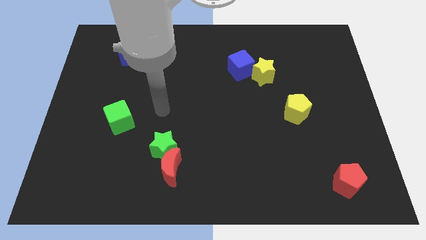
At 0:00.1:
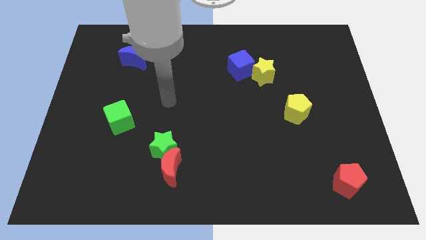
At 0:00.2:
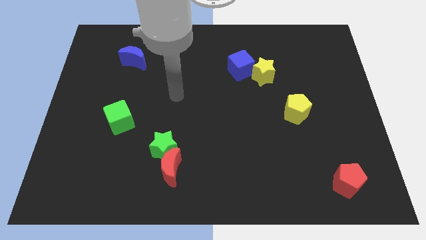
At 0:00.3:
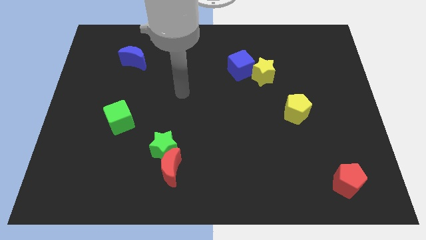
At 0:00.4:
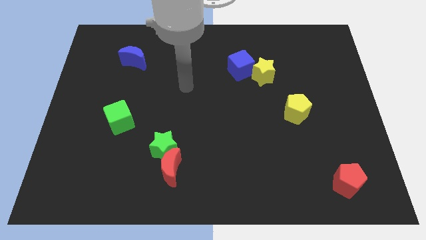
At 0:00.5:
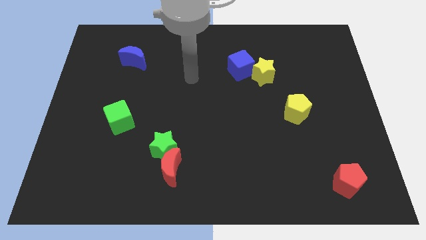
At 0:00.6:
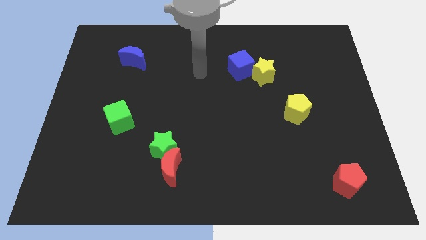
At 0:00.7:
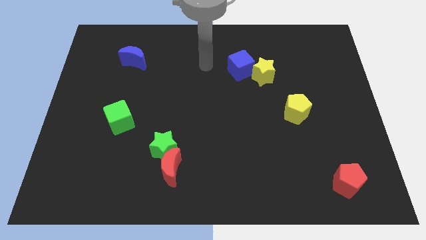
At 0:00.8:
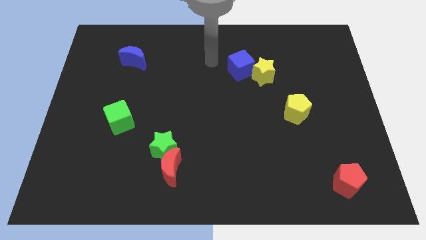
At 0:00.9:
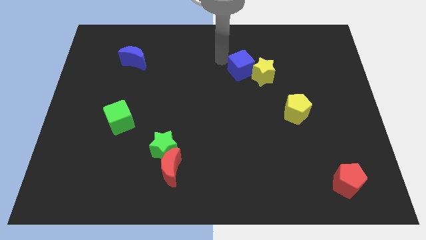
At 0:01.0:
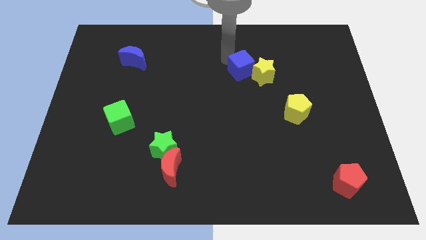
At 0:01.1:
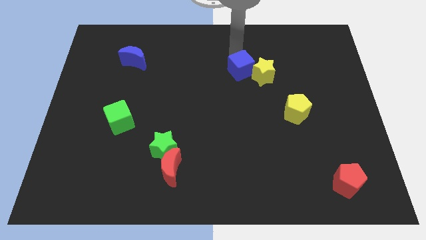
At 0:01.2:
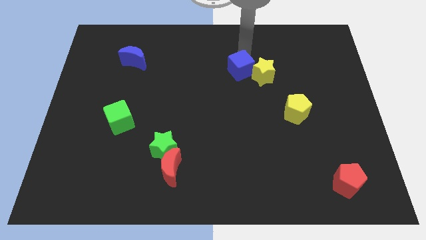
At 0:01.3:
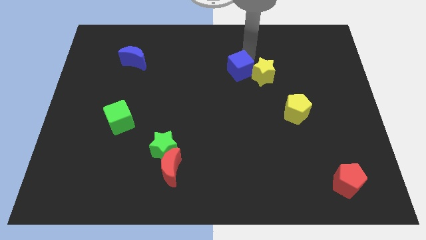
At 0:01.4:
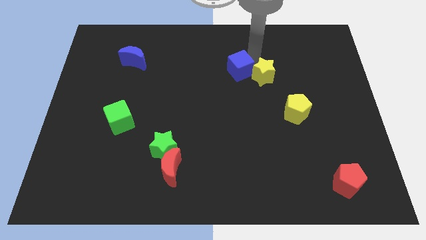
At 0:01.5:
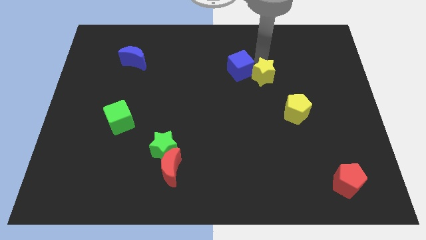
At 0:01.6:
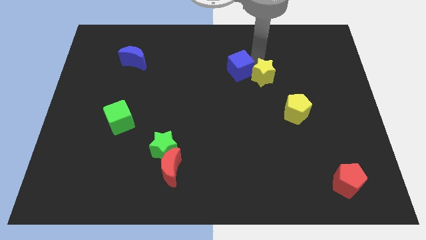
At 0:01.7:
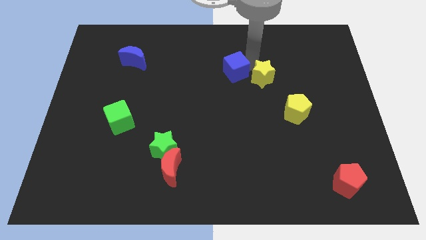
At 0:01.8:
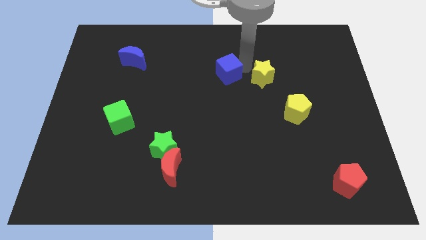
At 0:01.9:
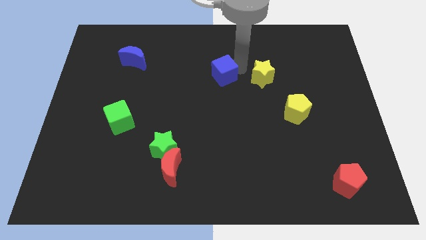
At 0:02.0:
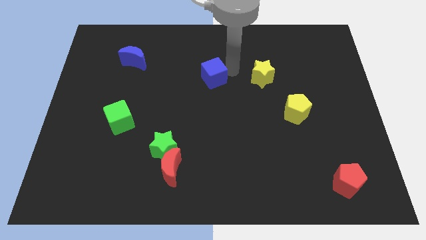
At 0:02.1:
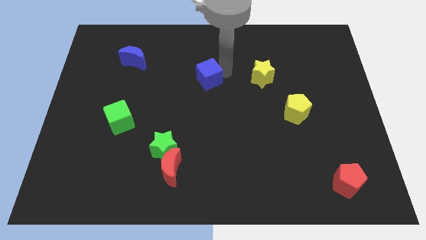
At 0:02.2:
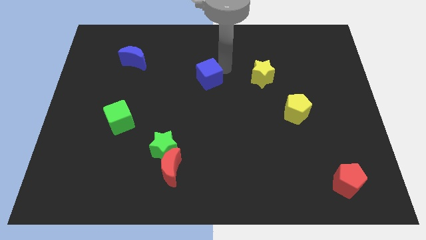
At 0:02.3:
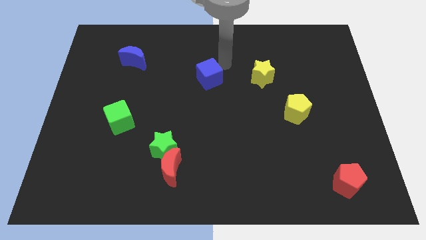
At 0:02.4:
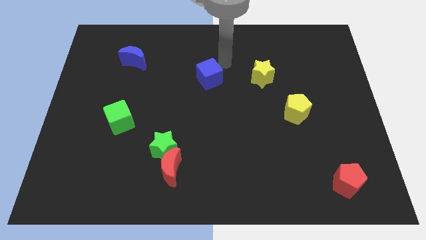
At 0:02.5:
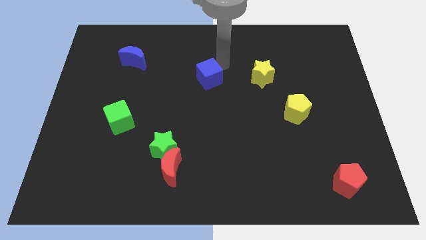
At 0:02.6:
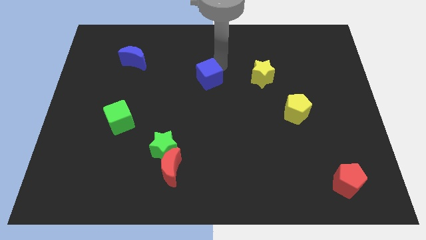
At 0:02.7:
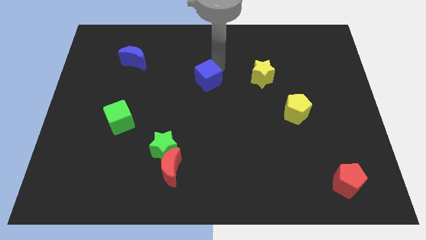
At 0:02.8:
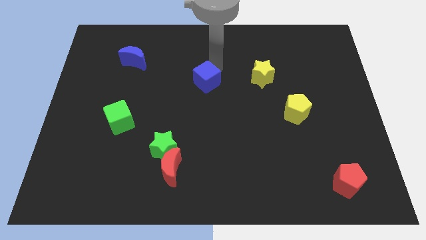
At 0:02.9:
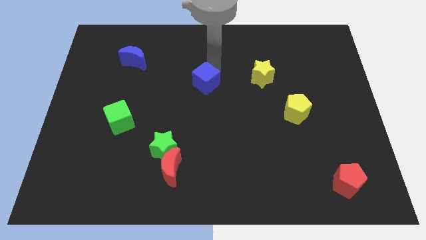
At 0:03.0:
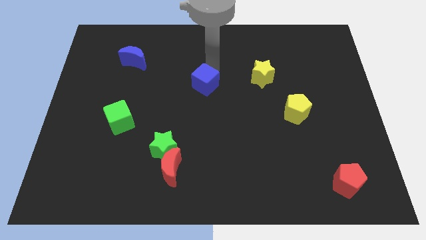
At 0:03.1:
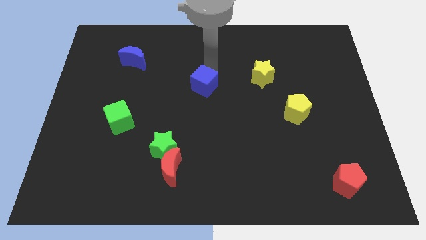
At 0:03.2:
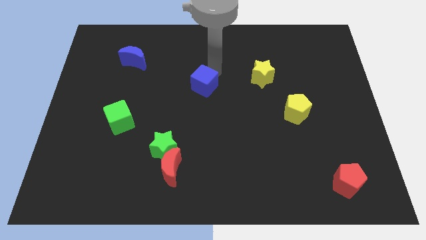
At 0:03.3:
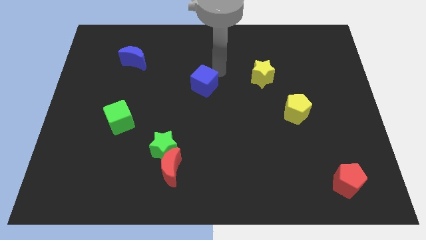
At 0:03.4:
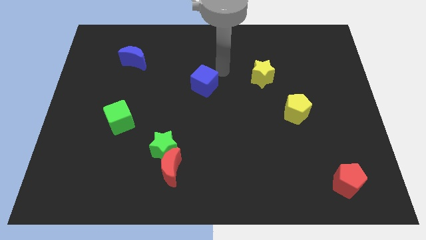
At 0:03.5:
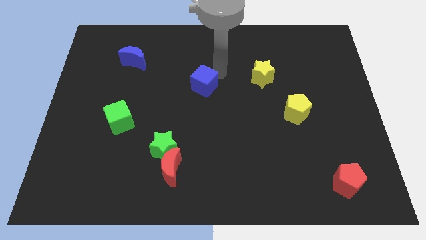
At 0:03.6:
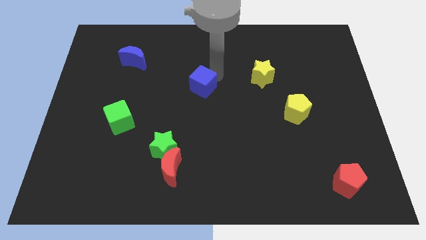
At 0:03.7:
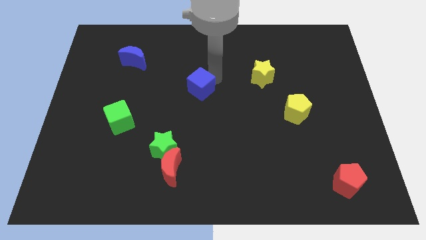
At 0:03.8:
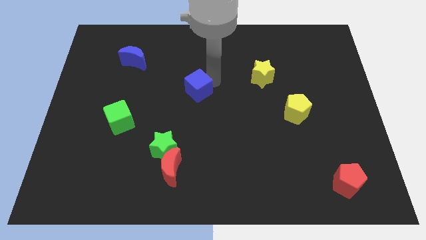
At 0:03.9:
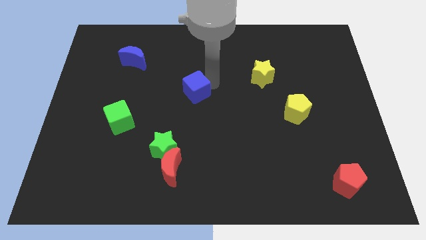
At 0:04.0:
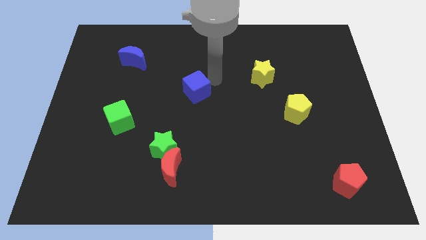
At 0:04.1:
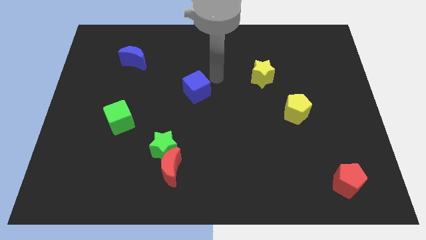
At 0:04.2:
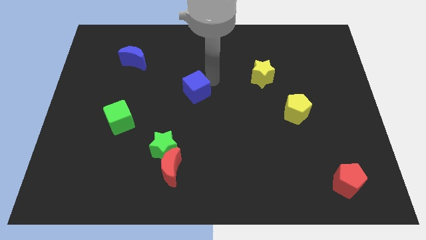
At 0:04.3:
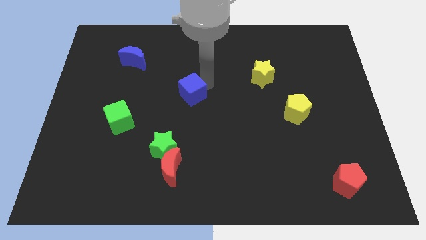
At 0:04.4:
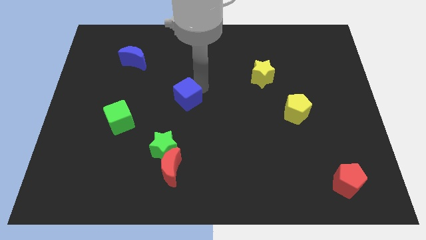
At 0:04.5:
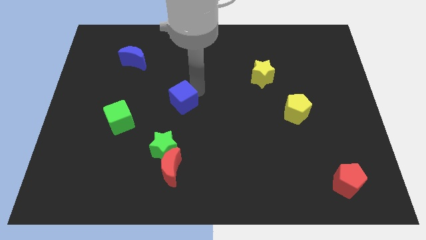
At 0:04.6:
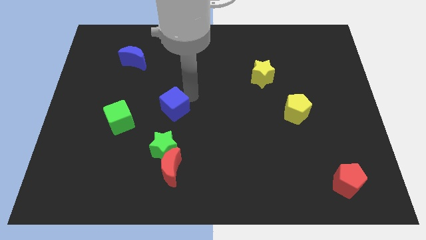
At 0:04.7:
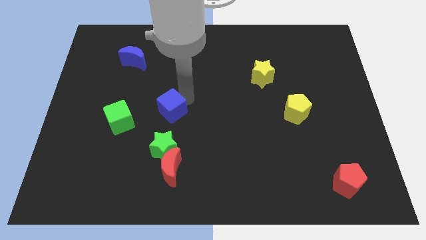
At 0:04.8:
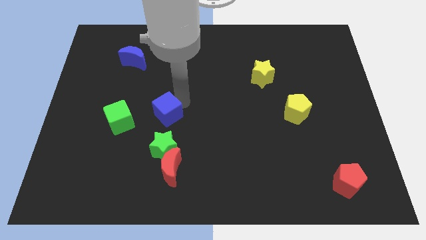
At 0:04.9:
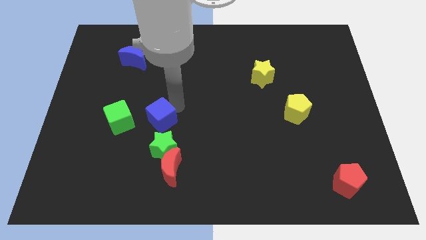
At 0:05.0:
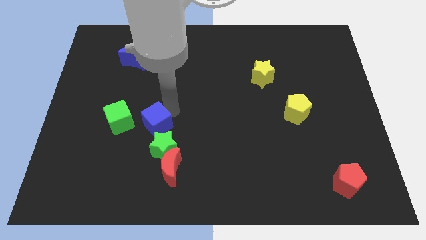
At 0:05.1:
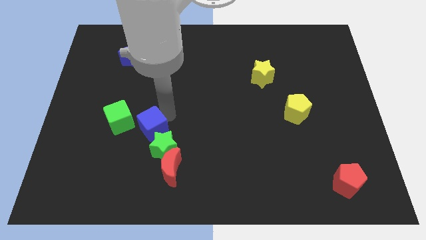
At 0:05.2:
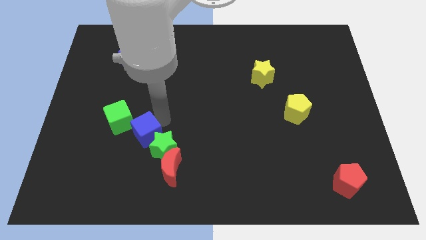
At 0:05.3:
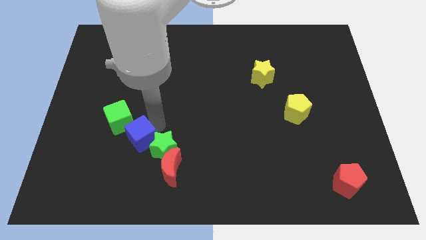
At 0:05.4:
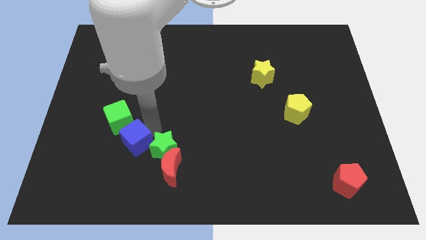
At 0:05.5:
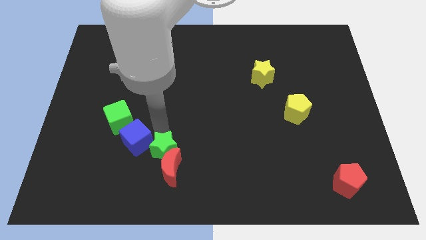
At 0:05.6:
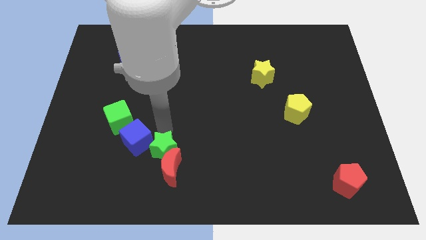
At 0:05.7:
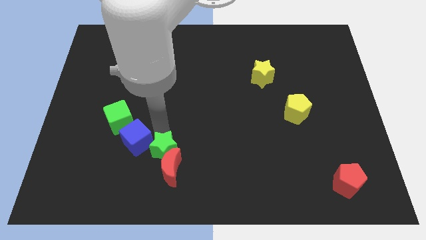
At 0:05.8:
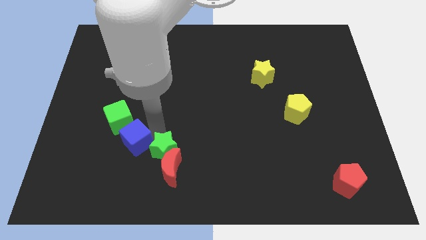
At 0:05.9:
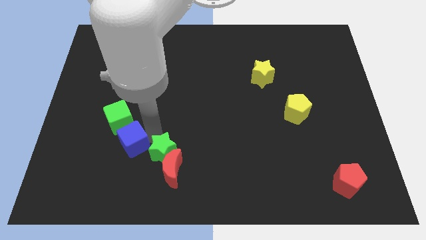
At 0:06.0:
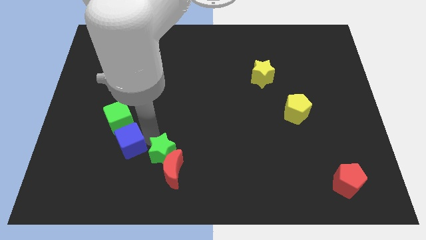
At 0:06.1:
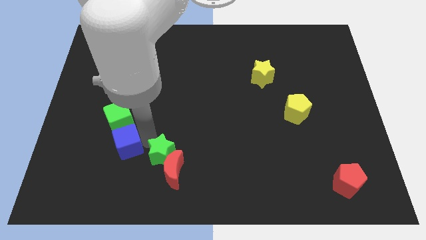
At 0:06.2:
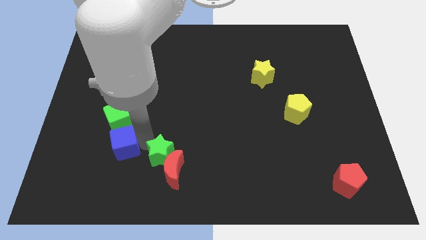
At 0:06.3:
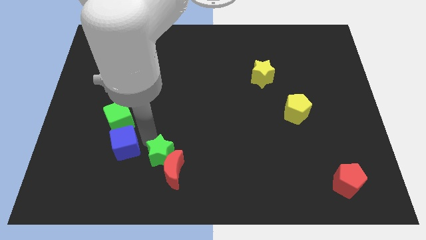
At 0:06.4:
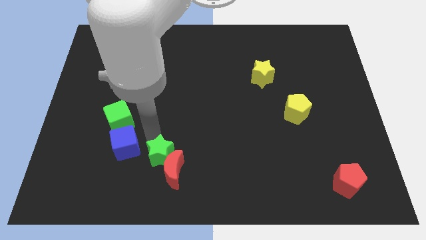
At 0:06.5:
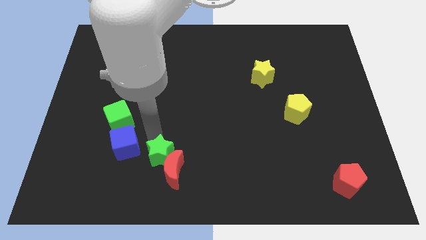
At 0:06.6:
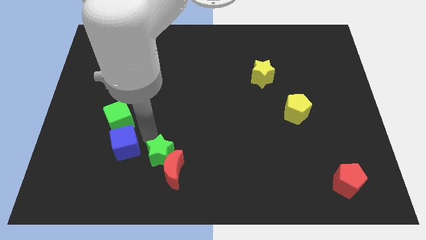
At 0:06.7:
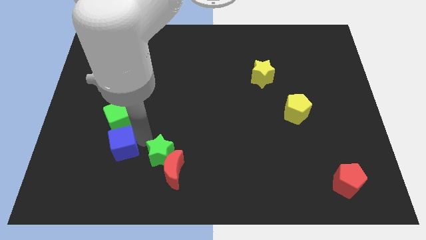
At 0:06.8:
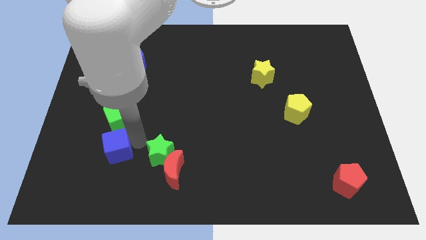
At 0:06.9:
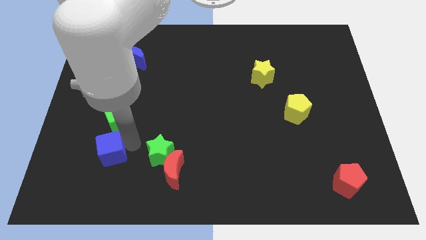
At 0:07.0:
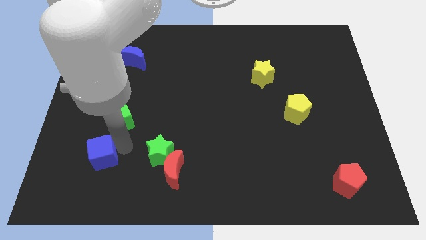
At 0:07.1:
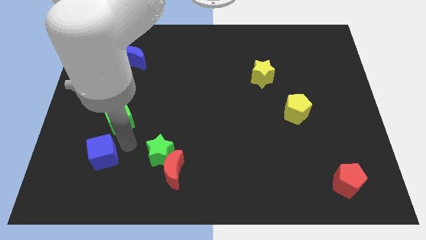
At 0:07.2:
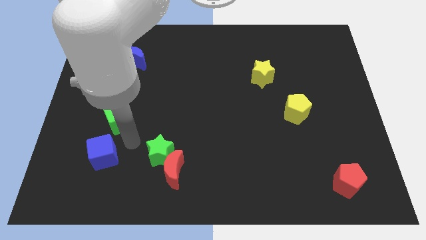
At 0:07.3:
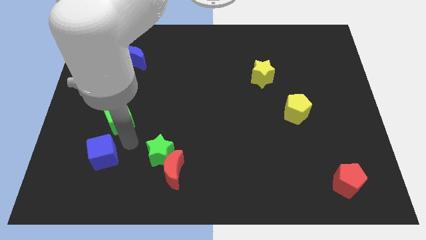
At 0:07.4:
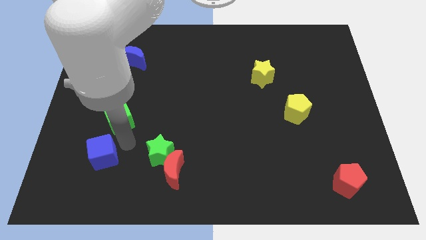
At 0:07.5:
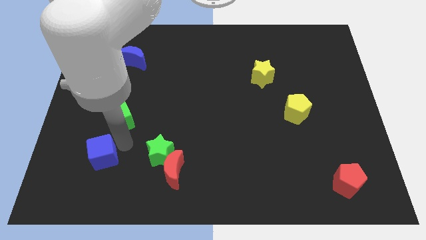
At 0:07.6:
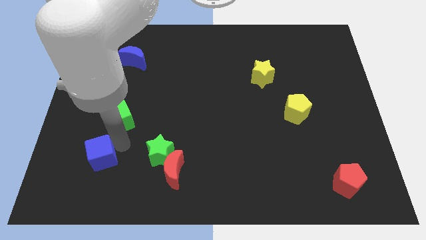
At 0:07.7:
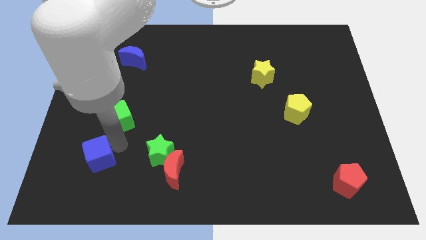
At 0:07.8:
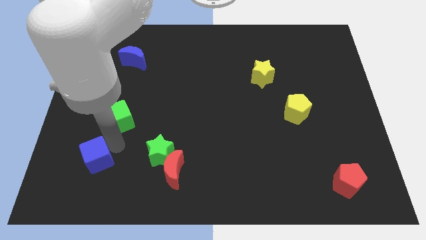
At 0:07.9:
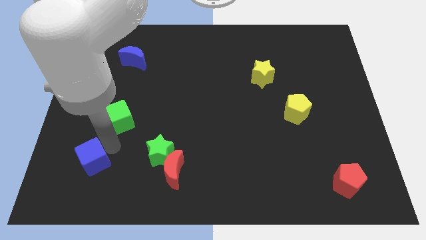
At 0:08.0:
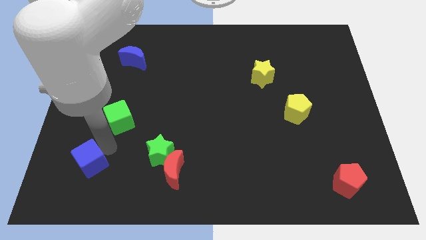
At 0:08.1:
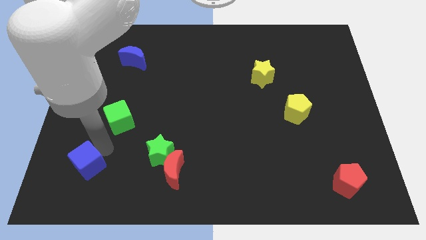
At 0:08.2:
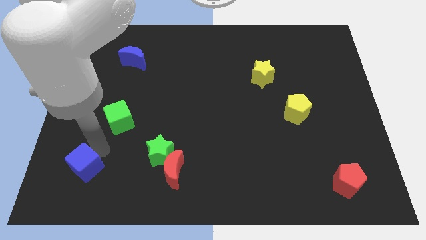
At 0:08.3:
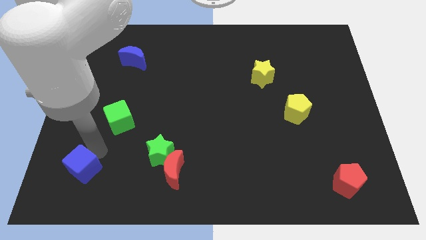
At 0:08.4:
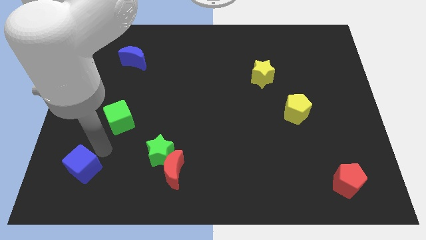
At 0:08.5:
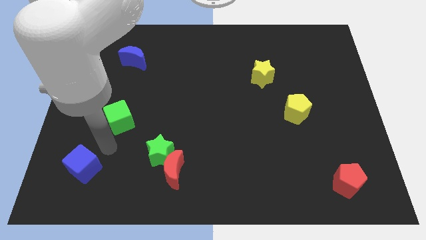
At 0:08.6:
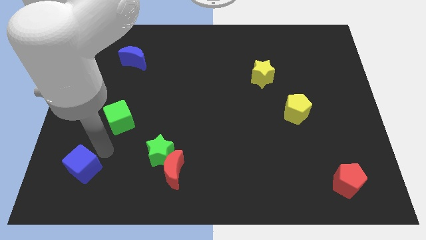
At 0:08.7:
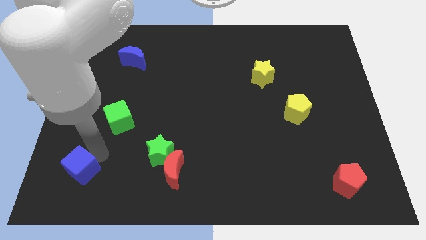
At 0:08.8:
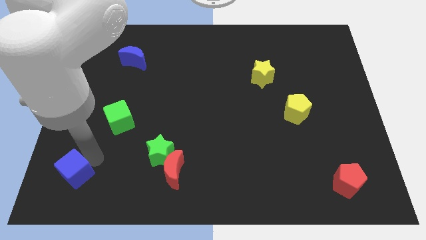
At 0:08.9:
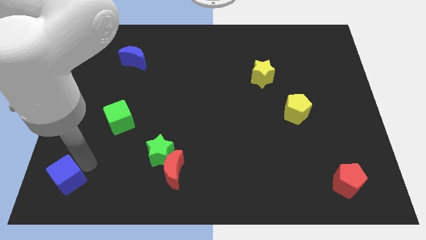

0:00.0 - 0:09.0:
slide the blue cube to the bottom left
